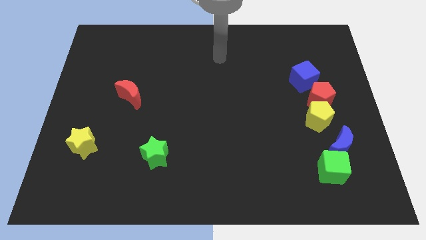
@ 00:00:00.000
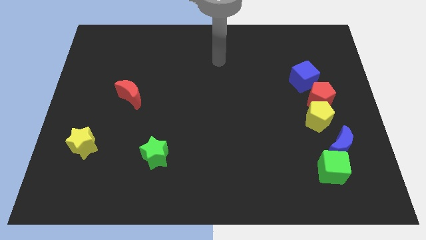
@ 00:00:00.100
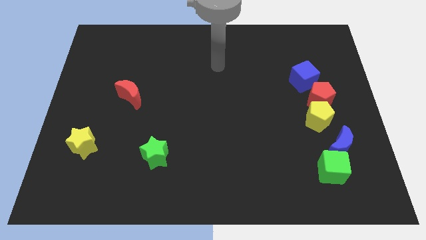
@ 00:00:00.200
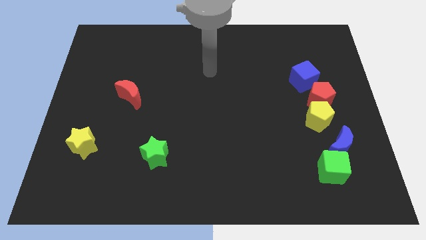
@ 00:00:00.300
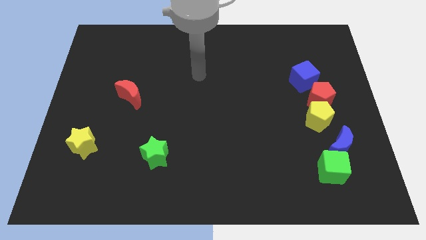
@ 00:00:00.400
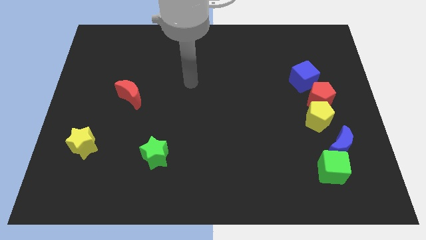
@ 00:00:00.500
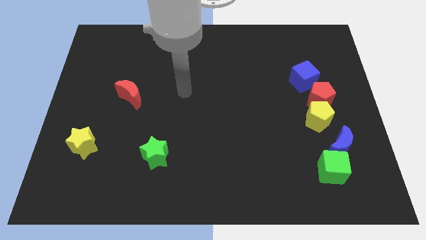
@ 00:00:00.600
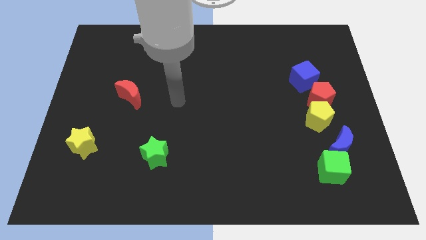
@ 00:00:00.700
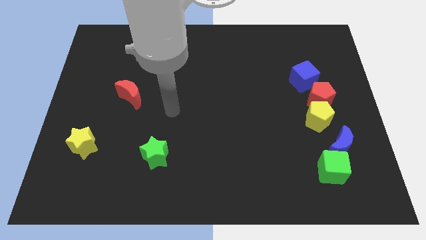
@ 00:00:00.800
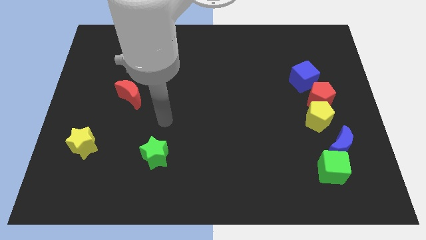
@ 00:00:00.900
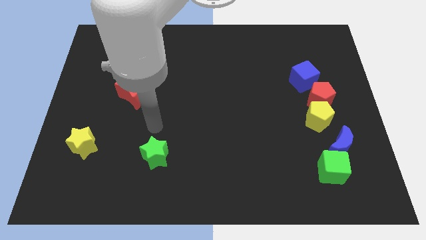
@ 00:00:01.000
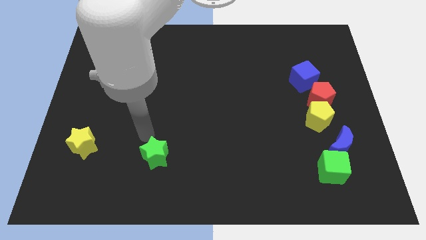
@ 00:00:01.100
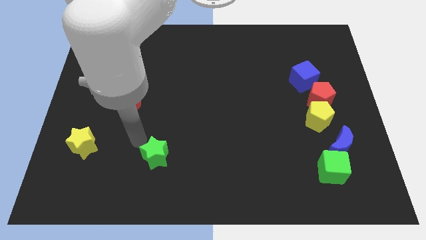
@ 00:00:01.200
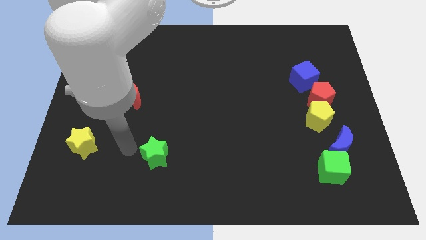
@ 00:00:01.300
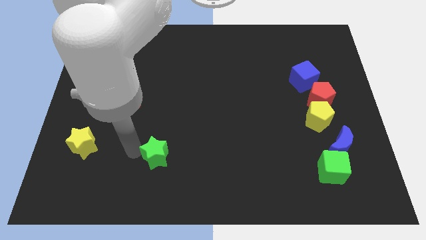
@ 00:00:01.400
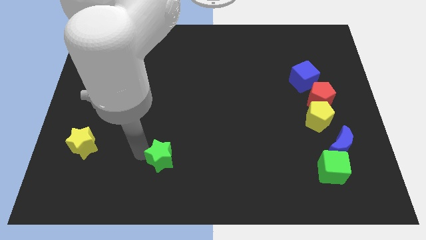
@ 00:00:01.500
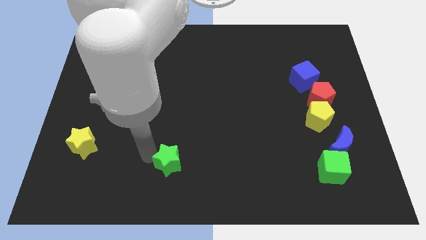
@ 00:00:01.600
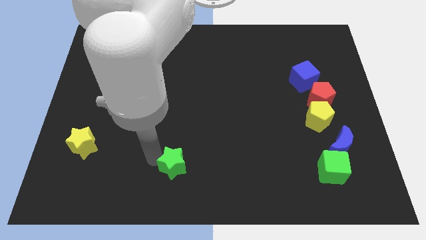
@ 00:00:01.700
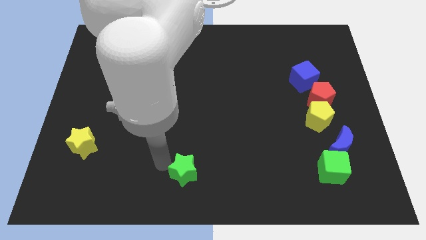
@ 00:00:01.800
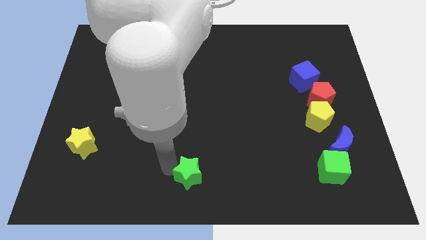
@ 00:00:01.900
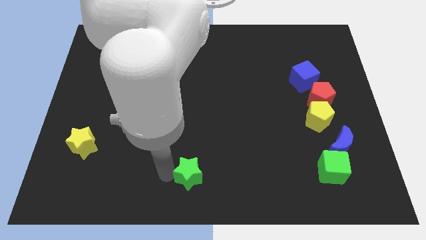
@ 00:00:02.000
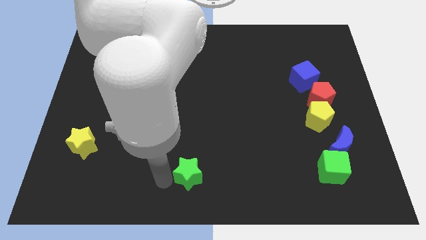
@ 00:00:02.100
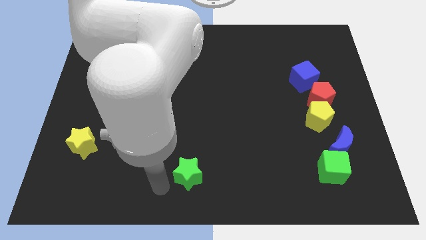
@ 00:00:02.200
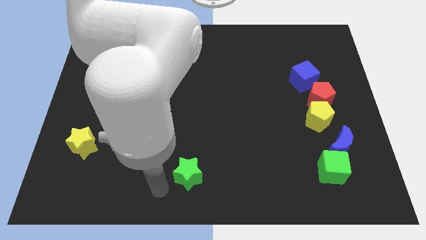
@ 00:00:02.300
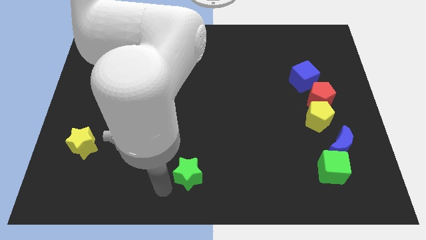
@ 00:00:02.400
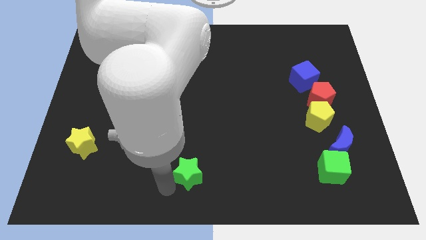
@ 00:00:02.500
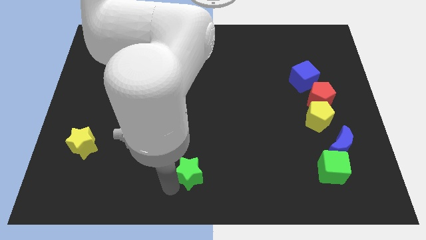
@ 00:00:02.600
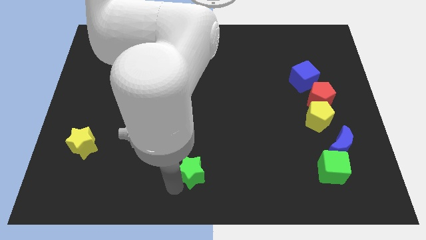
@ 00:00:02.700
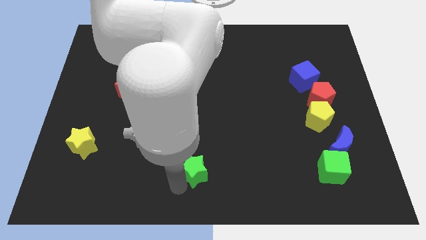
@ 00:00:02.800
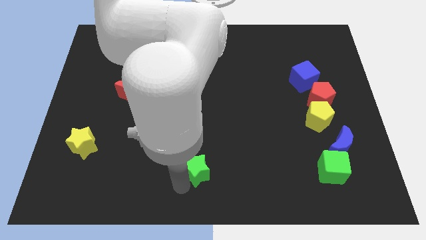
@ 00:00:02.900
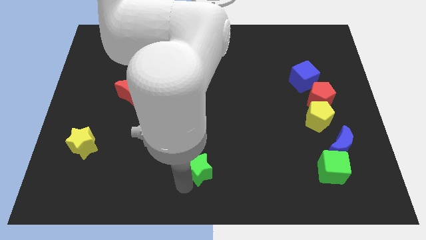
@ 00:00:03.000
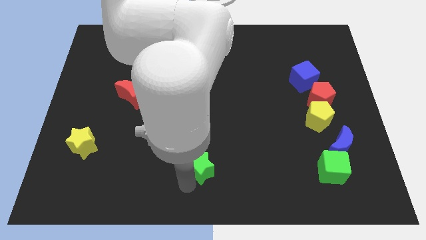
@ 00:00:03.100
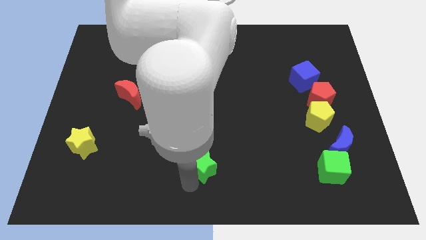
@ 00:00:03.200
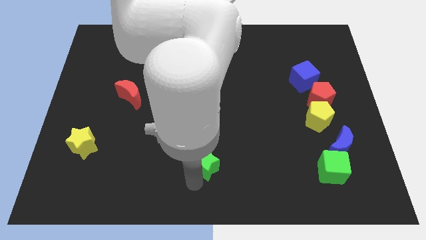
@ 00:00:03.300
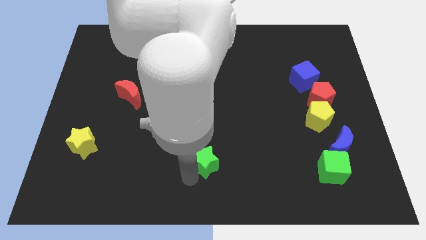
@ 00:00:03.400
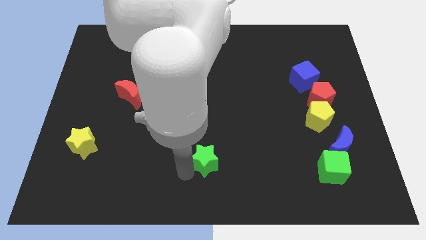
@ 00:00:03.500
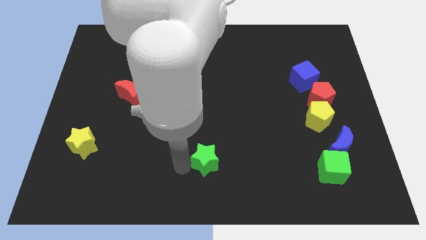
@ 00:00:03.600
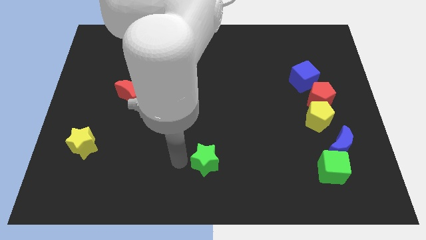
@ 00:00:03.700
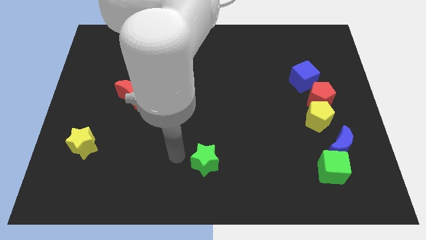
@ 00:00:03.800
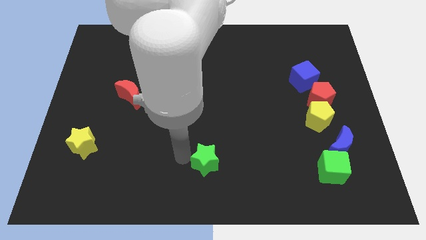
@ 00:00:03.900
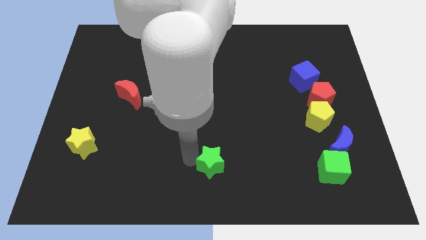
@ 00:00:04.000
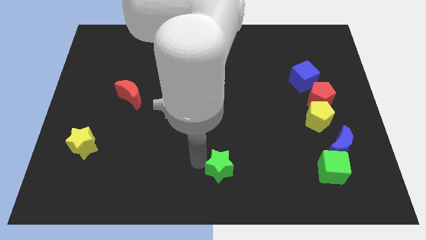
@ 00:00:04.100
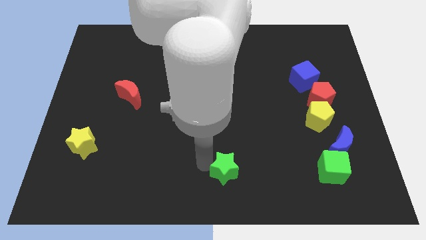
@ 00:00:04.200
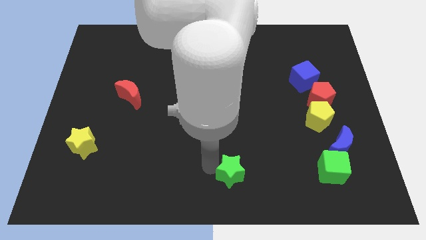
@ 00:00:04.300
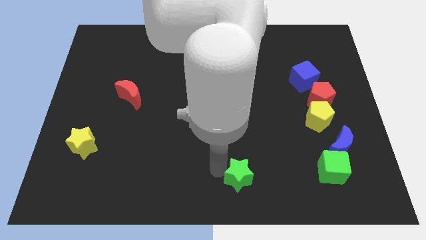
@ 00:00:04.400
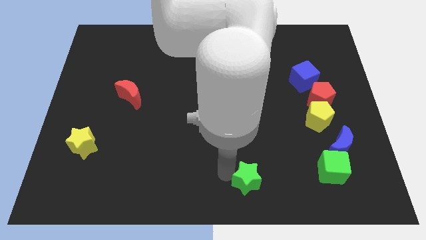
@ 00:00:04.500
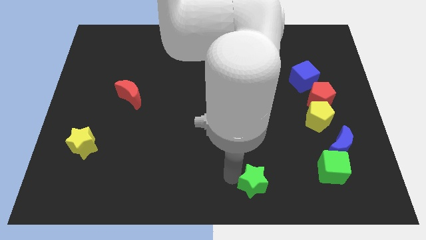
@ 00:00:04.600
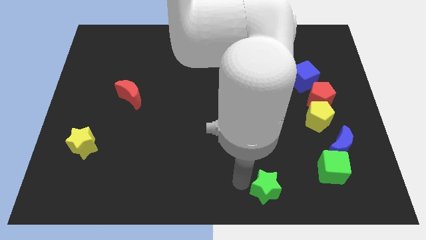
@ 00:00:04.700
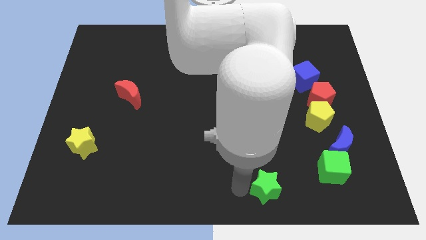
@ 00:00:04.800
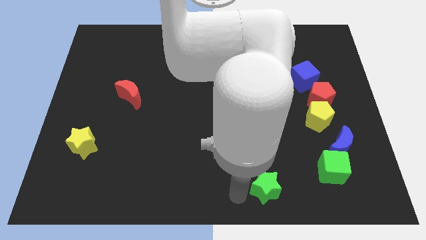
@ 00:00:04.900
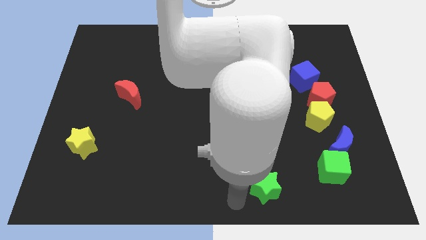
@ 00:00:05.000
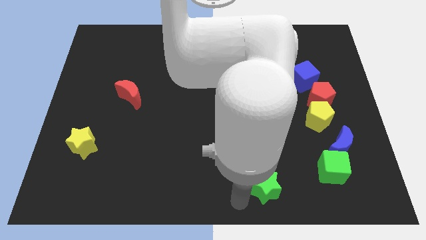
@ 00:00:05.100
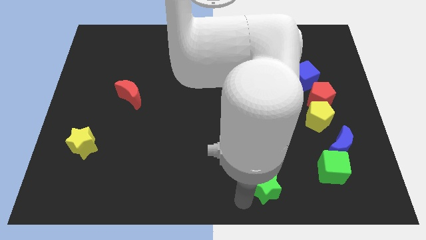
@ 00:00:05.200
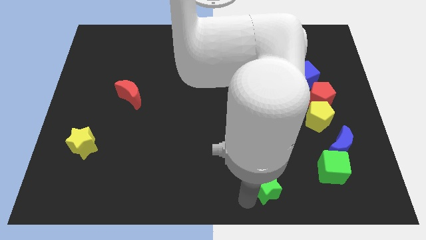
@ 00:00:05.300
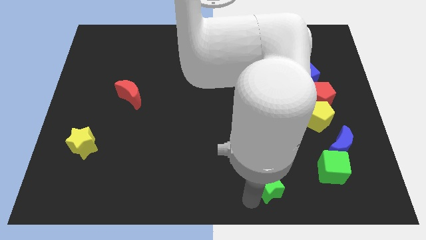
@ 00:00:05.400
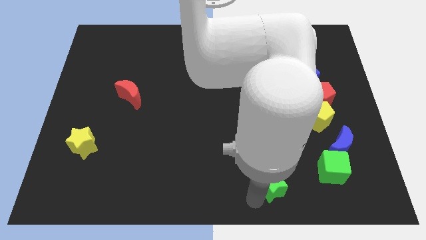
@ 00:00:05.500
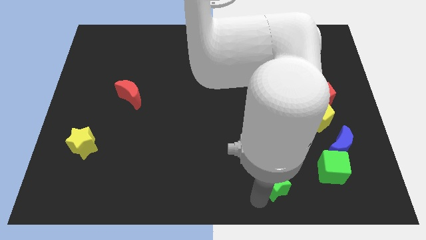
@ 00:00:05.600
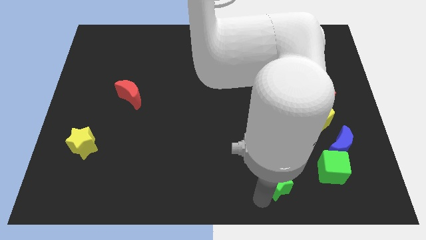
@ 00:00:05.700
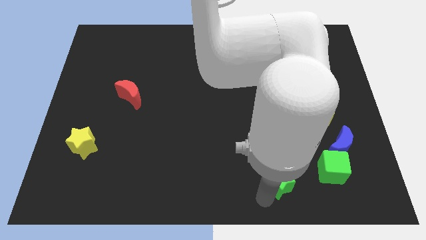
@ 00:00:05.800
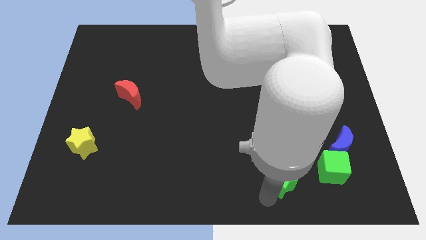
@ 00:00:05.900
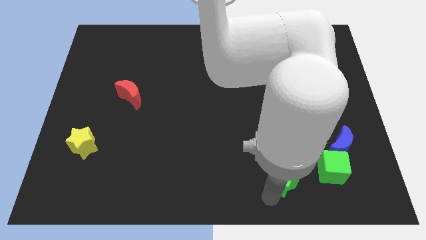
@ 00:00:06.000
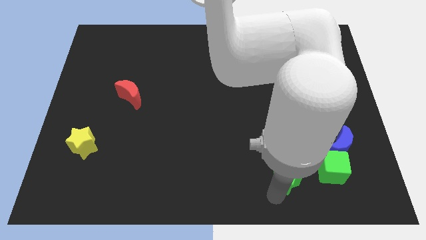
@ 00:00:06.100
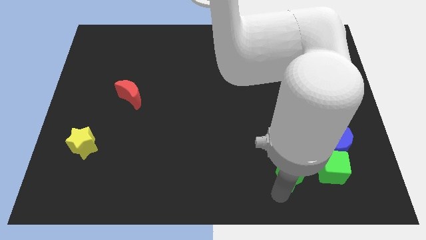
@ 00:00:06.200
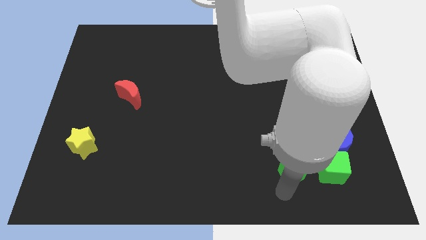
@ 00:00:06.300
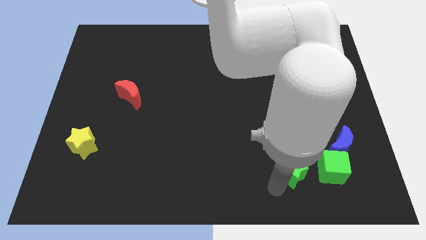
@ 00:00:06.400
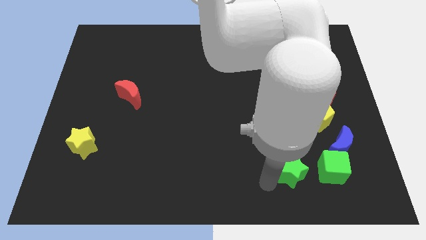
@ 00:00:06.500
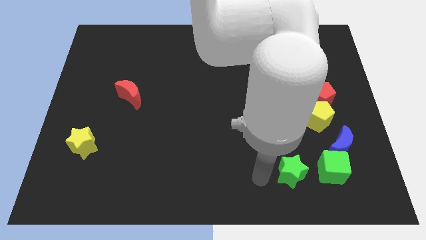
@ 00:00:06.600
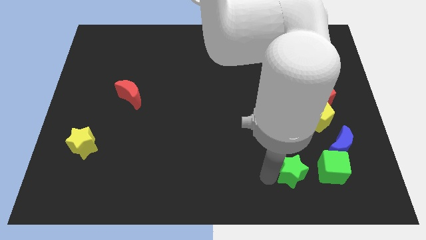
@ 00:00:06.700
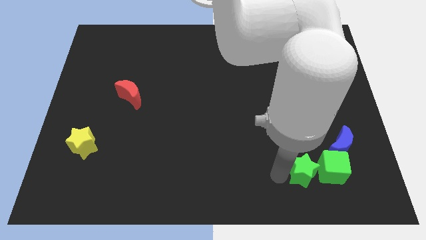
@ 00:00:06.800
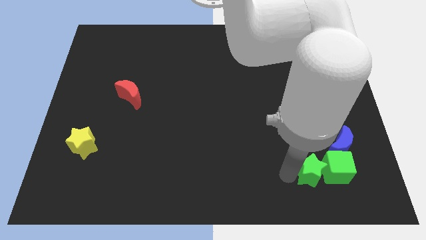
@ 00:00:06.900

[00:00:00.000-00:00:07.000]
slide the green star towards the green cube
